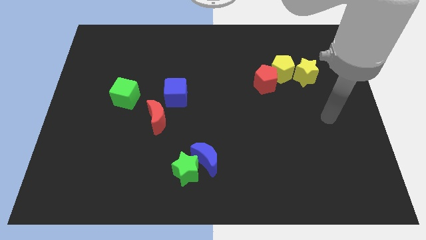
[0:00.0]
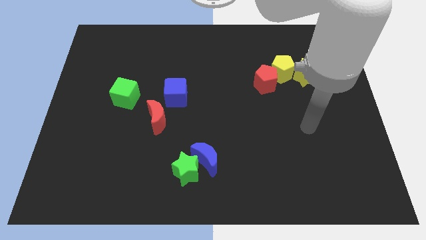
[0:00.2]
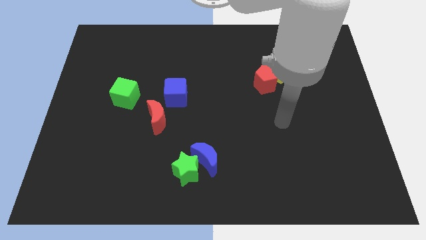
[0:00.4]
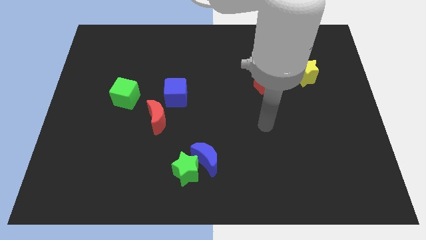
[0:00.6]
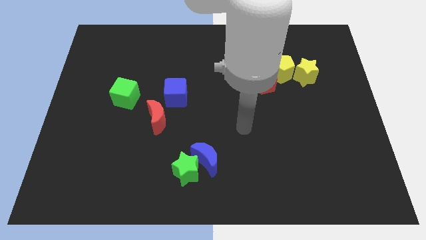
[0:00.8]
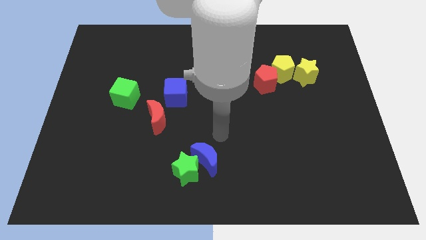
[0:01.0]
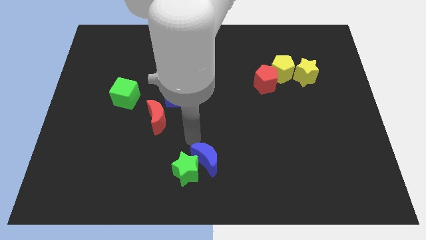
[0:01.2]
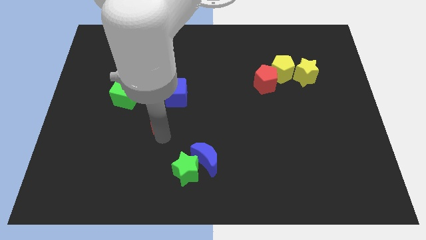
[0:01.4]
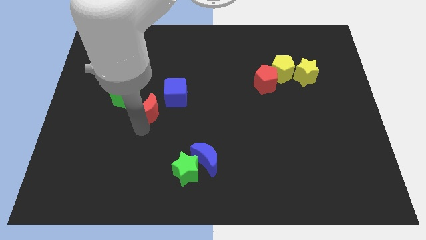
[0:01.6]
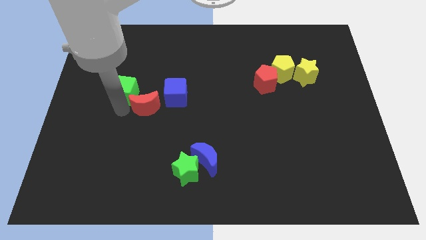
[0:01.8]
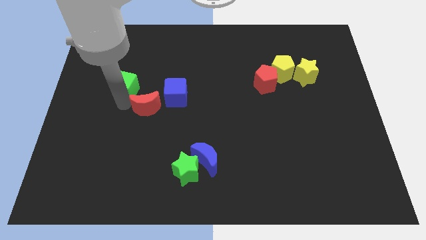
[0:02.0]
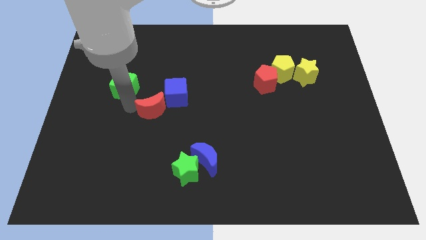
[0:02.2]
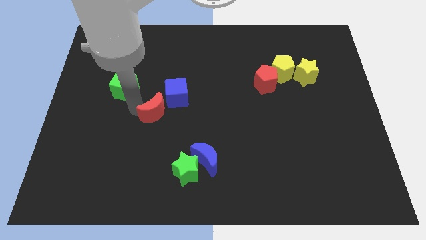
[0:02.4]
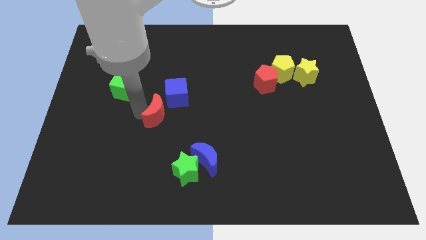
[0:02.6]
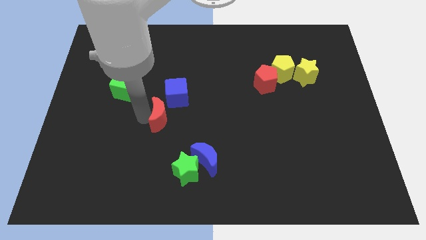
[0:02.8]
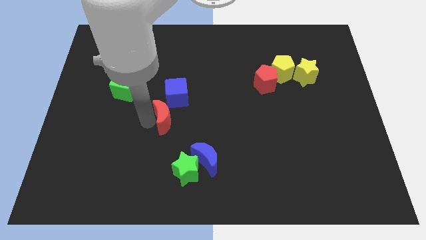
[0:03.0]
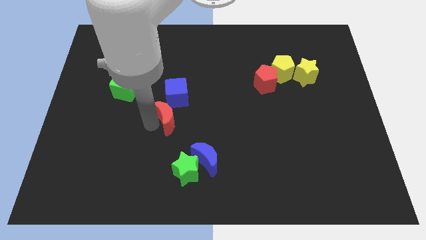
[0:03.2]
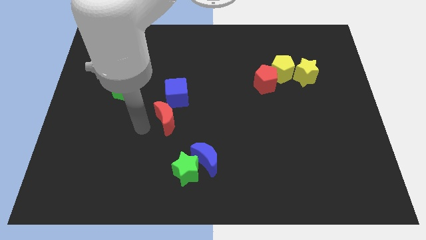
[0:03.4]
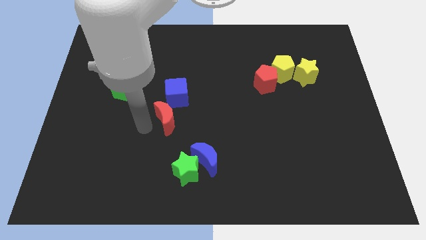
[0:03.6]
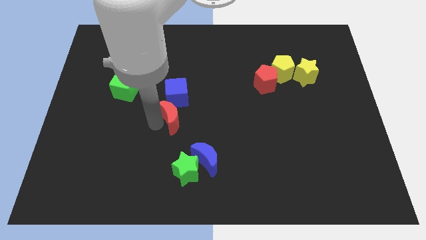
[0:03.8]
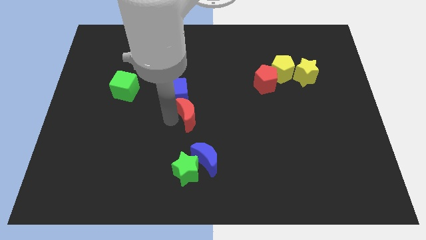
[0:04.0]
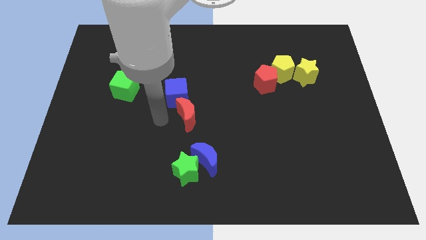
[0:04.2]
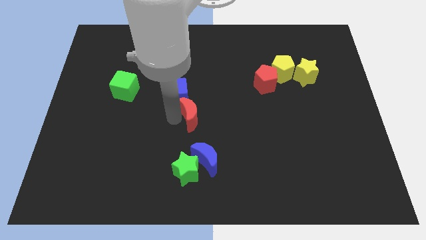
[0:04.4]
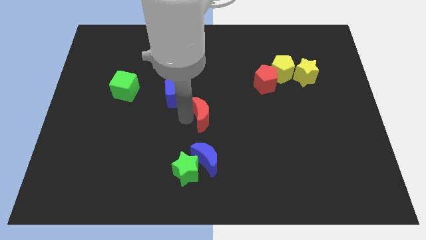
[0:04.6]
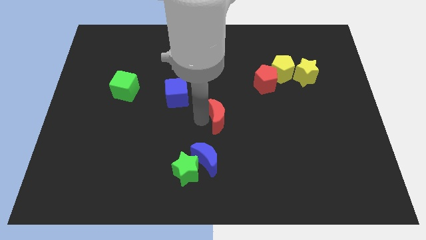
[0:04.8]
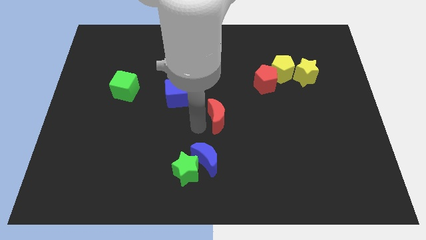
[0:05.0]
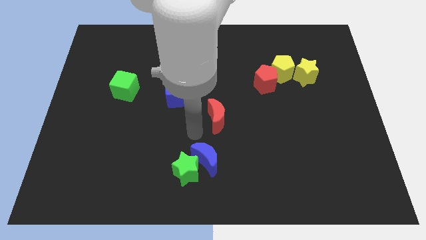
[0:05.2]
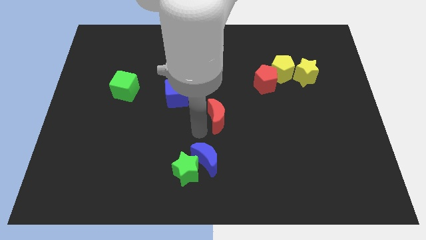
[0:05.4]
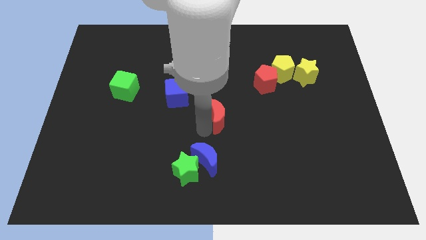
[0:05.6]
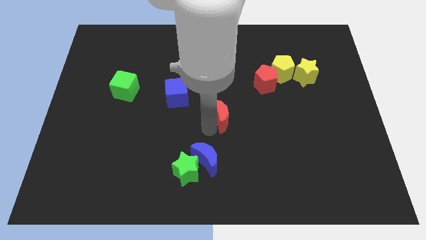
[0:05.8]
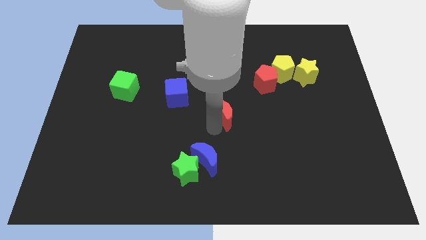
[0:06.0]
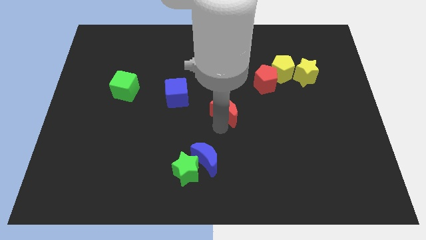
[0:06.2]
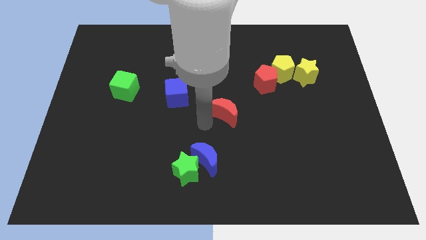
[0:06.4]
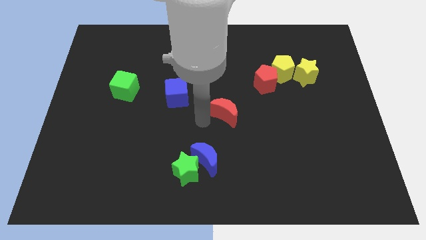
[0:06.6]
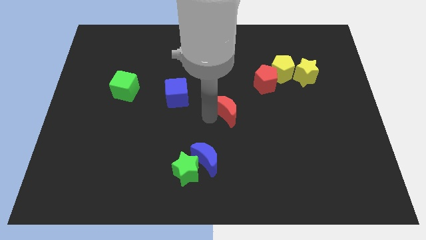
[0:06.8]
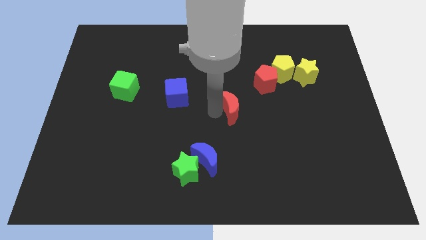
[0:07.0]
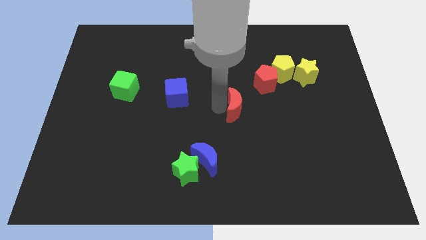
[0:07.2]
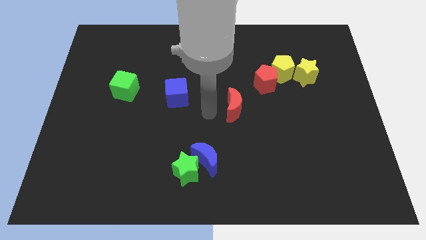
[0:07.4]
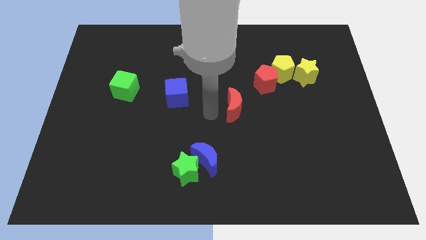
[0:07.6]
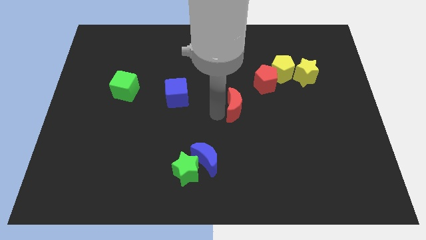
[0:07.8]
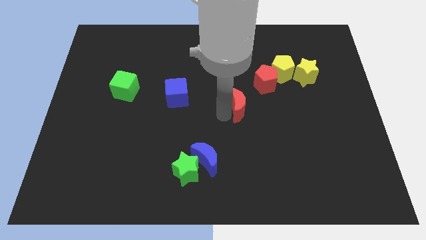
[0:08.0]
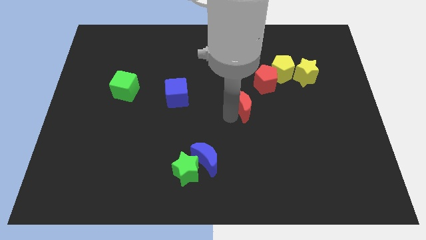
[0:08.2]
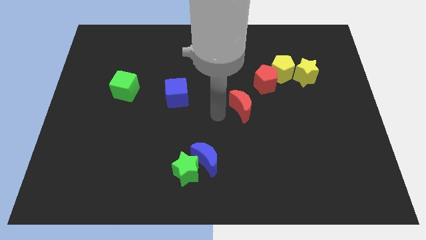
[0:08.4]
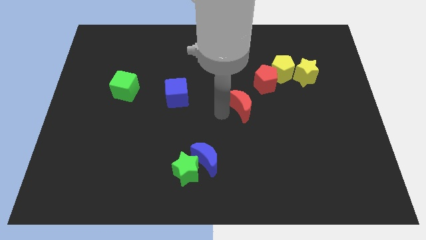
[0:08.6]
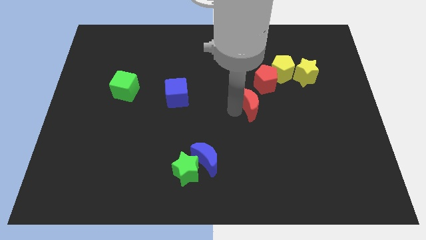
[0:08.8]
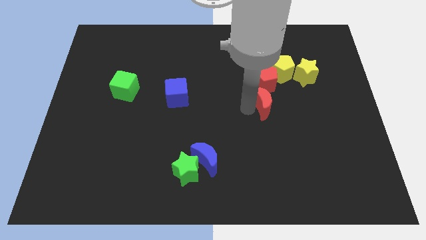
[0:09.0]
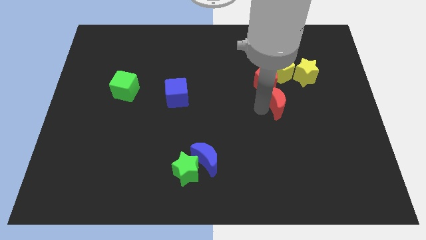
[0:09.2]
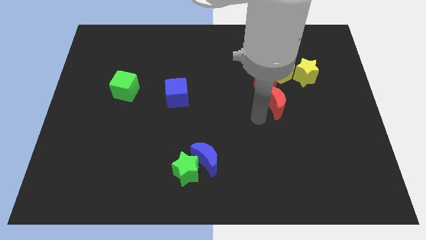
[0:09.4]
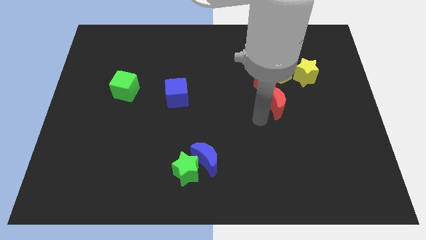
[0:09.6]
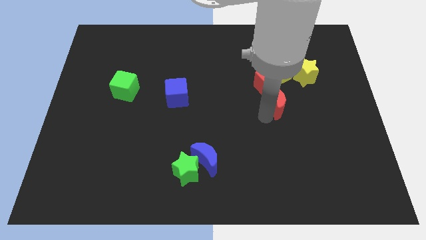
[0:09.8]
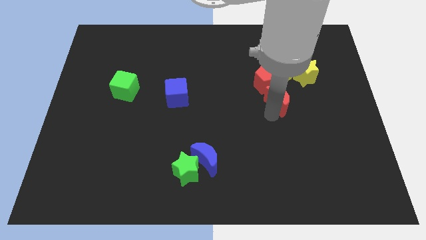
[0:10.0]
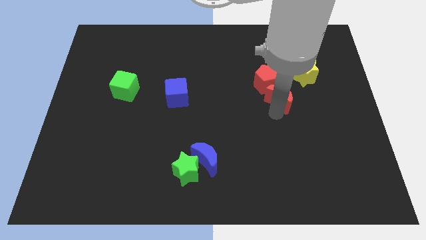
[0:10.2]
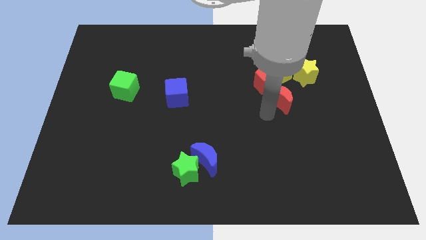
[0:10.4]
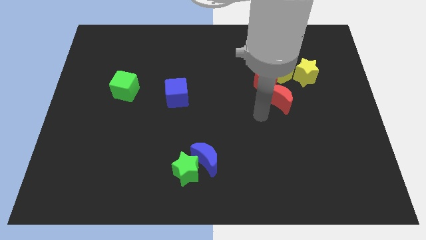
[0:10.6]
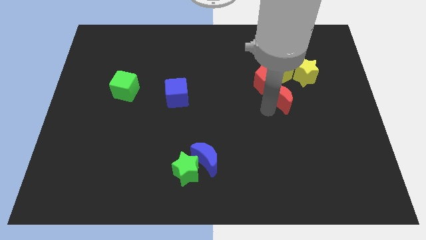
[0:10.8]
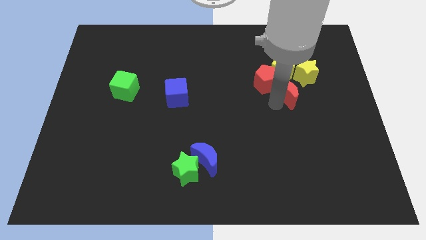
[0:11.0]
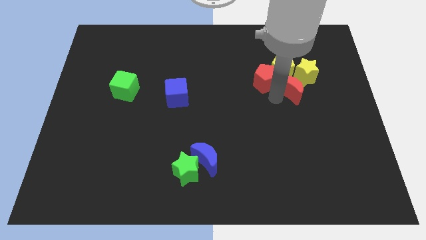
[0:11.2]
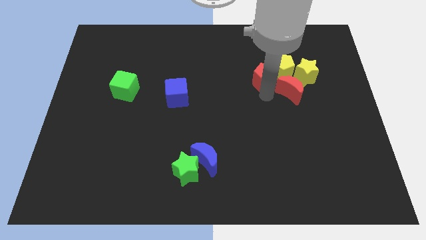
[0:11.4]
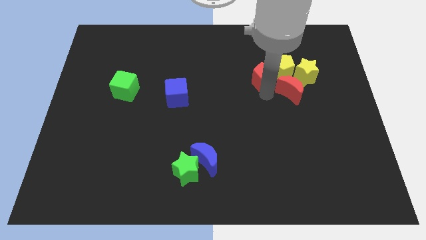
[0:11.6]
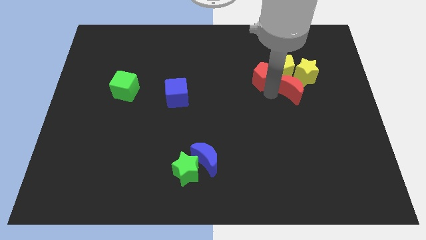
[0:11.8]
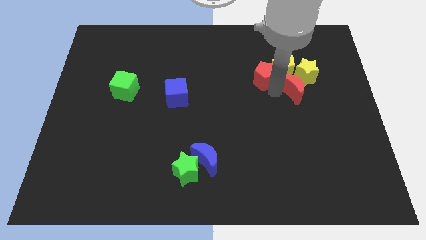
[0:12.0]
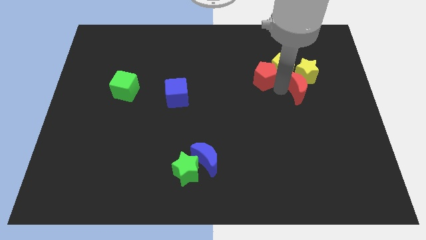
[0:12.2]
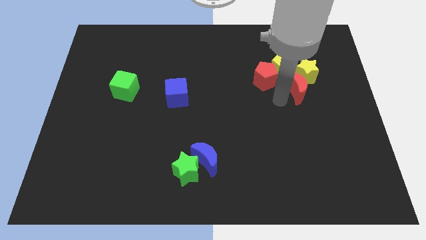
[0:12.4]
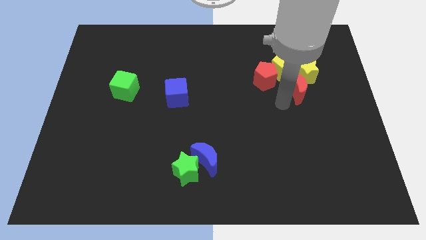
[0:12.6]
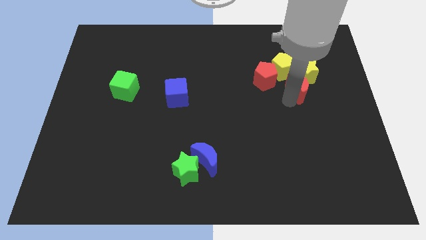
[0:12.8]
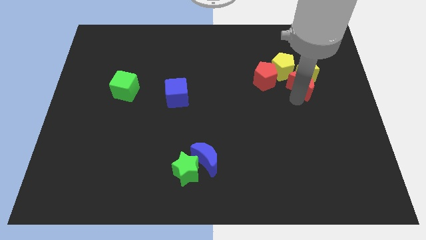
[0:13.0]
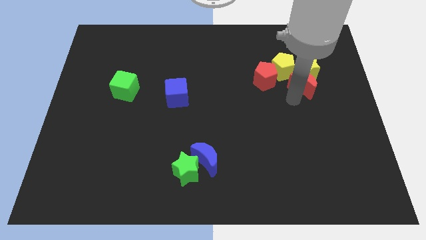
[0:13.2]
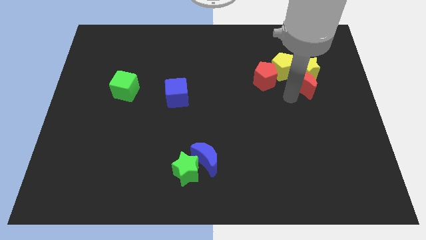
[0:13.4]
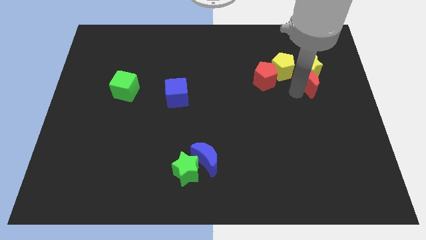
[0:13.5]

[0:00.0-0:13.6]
put the red moon to the right side of the yellow pentagon
